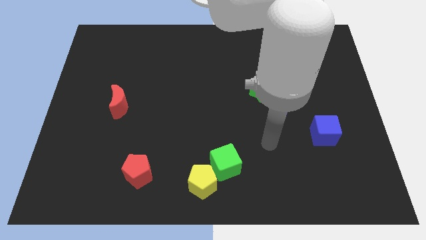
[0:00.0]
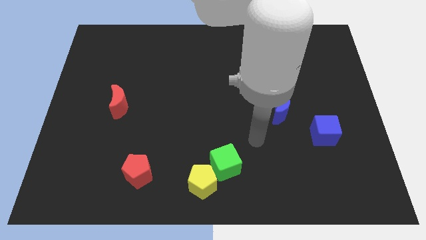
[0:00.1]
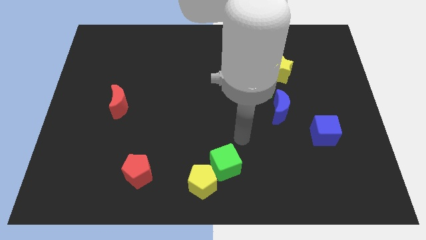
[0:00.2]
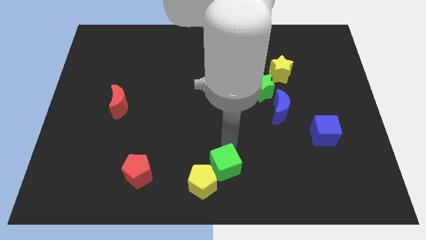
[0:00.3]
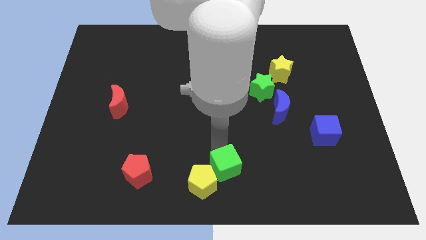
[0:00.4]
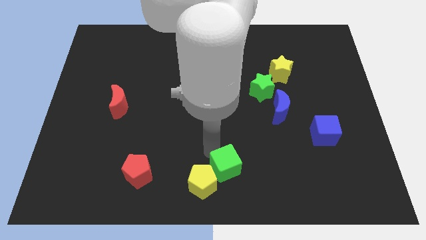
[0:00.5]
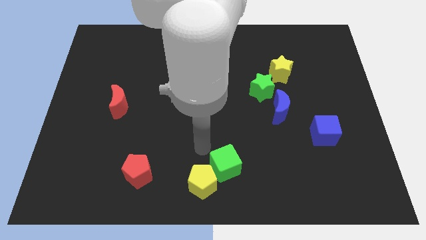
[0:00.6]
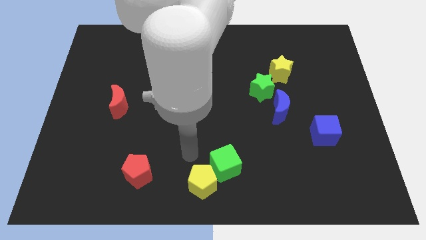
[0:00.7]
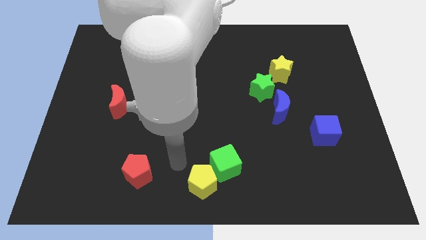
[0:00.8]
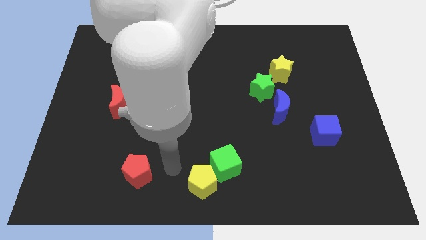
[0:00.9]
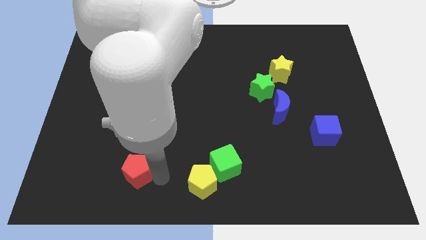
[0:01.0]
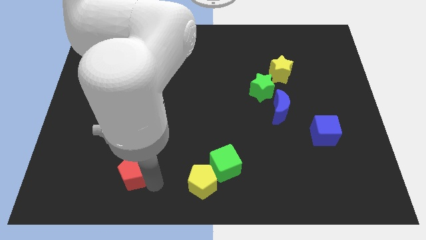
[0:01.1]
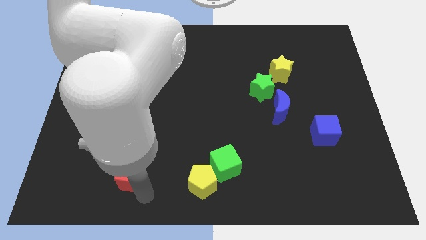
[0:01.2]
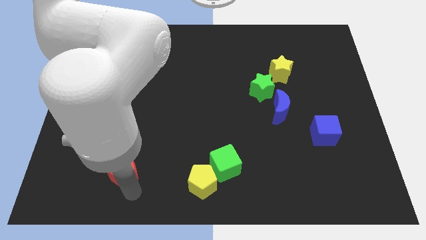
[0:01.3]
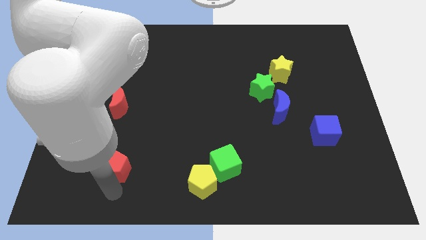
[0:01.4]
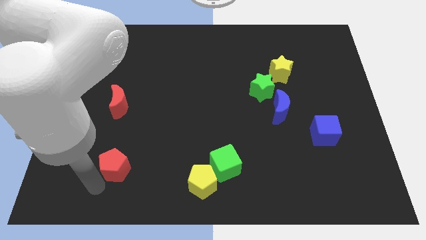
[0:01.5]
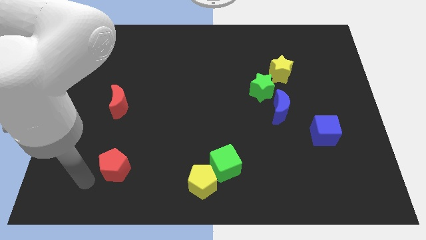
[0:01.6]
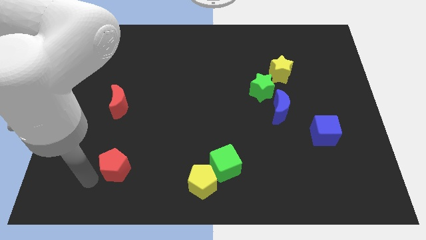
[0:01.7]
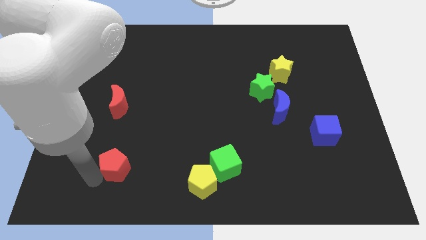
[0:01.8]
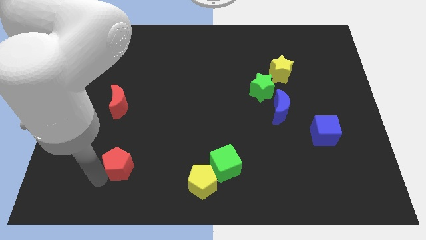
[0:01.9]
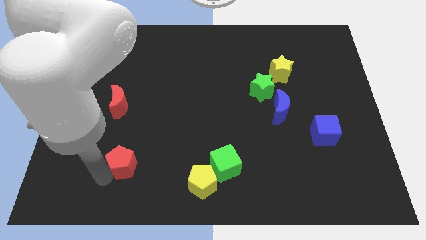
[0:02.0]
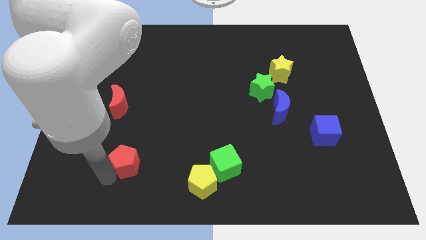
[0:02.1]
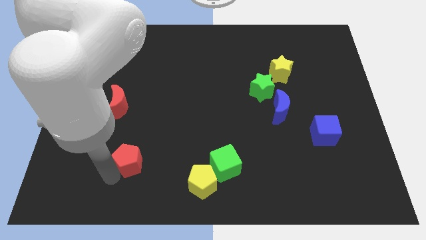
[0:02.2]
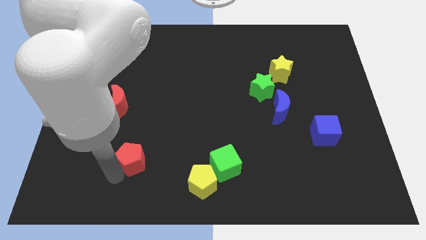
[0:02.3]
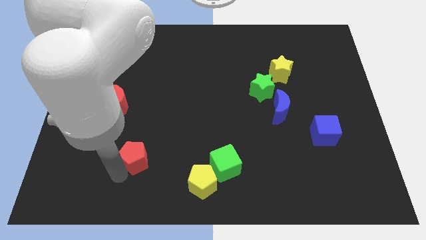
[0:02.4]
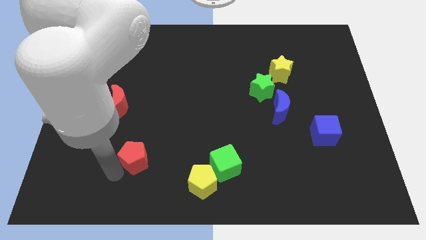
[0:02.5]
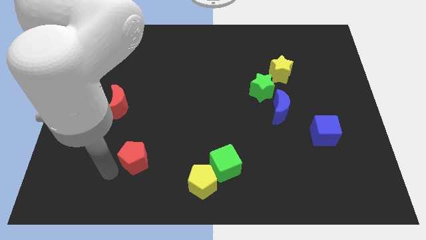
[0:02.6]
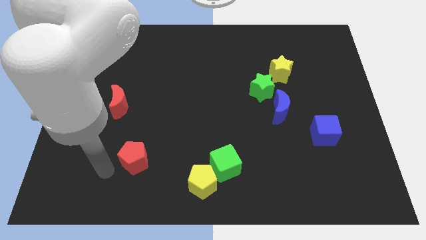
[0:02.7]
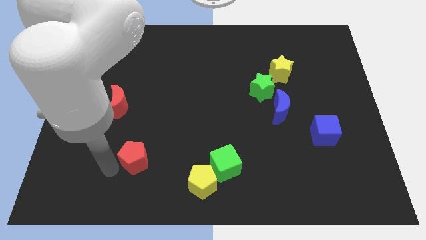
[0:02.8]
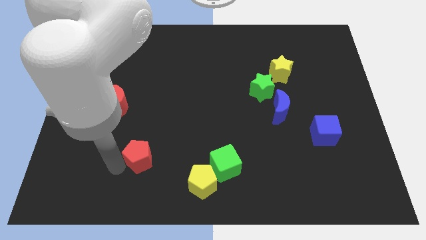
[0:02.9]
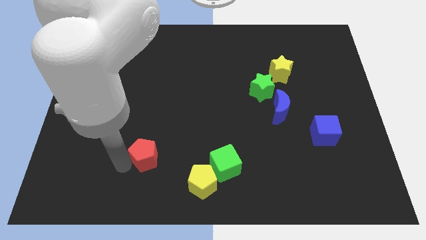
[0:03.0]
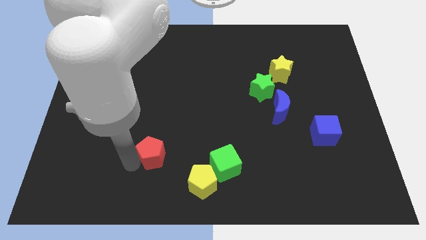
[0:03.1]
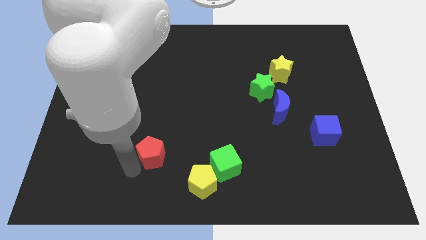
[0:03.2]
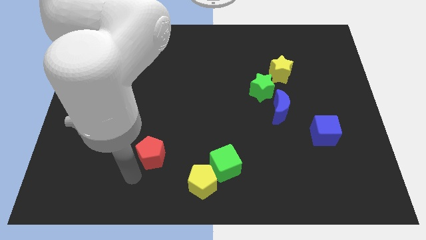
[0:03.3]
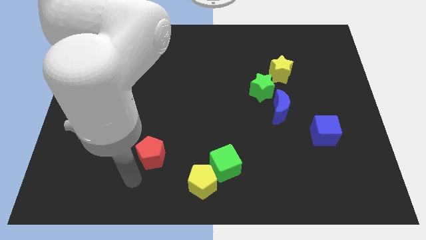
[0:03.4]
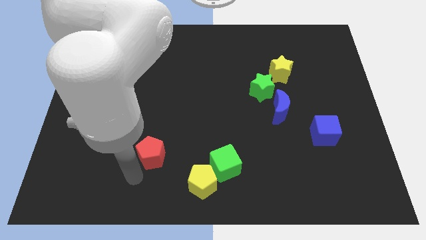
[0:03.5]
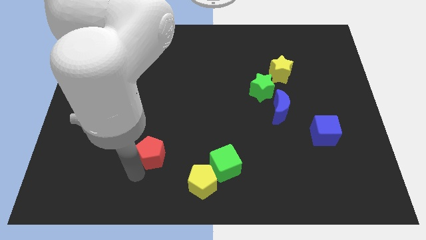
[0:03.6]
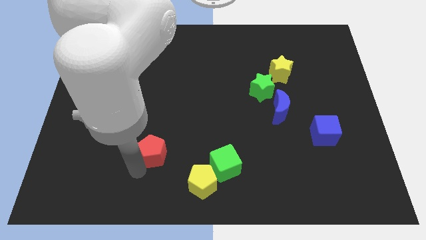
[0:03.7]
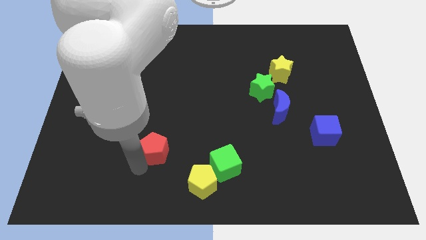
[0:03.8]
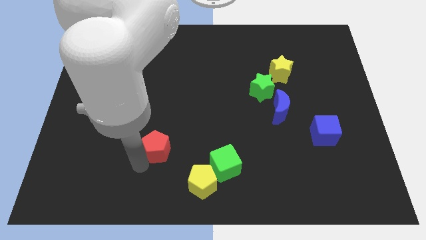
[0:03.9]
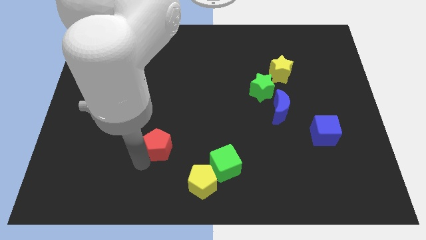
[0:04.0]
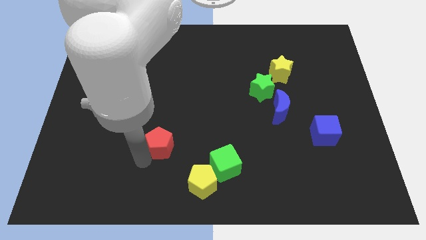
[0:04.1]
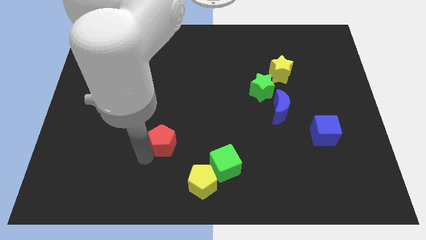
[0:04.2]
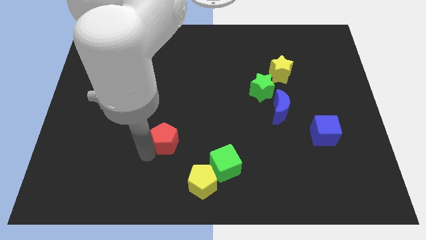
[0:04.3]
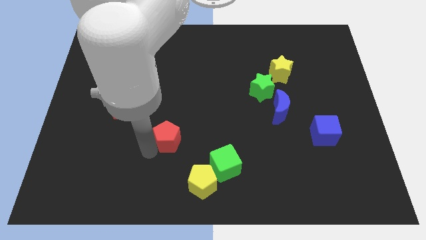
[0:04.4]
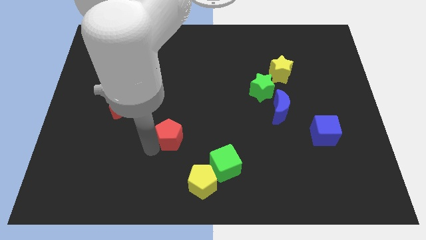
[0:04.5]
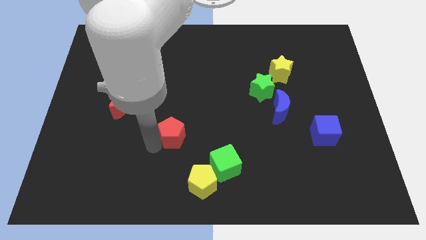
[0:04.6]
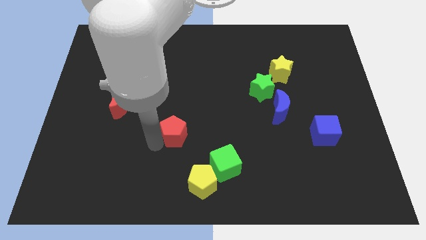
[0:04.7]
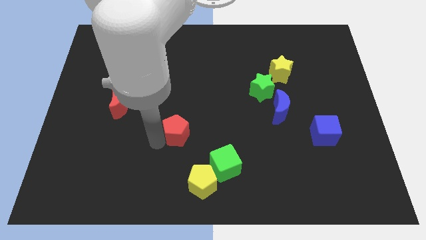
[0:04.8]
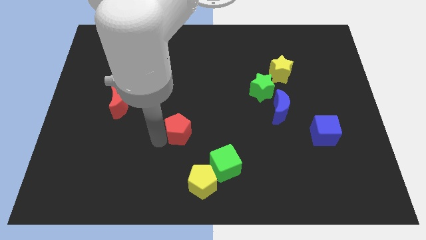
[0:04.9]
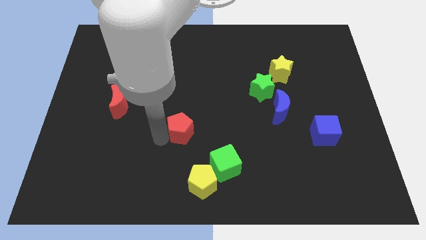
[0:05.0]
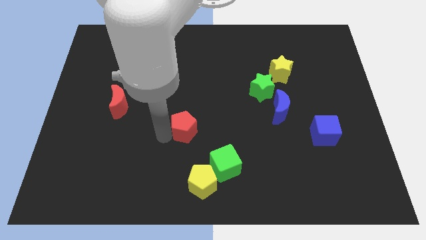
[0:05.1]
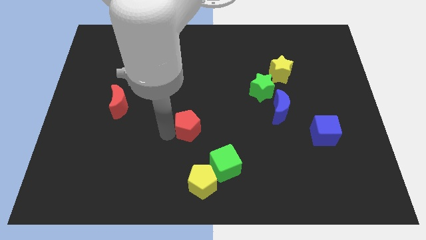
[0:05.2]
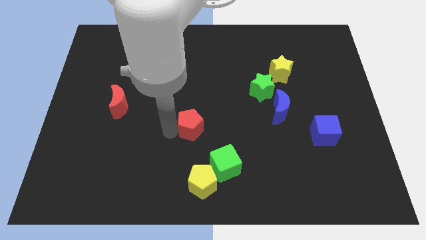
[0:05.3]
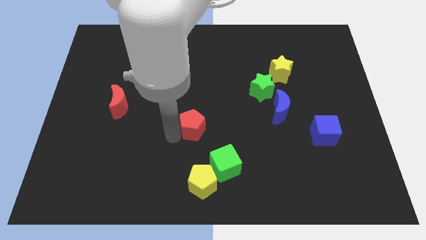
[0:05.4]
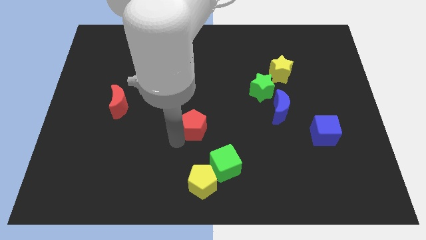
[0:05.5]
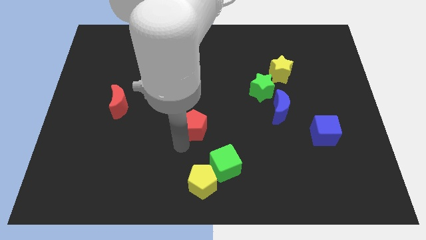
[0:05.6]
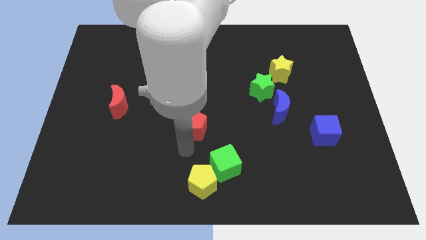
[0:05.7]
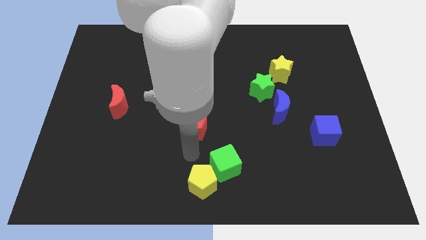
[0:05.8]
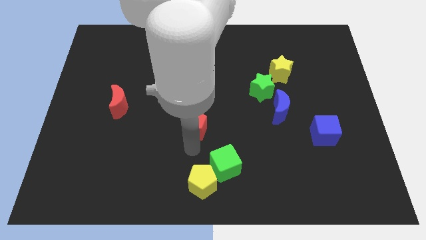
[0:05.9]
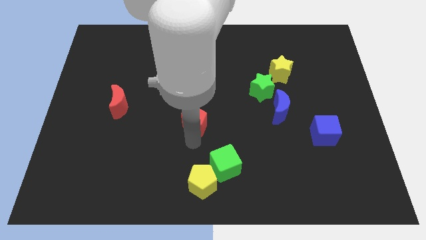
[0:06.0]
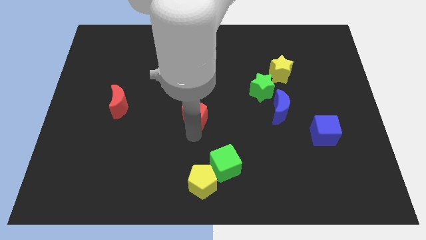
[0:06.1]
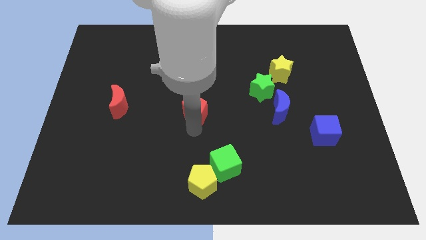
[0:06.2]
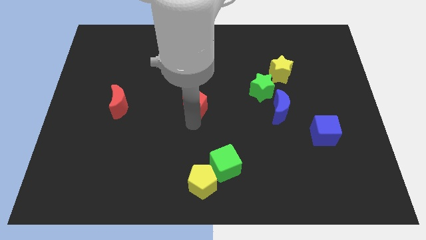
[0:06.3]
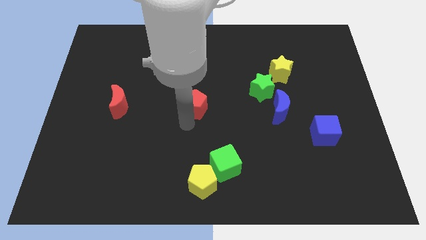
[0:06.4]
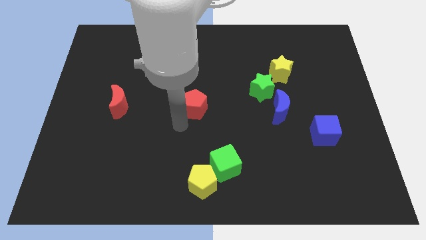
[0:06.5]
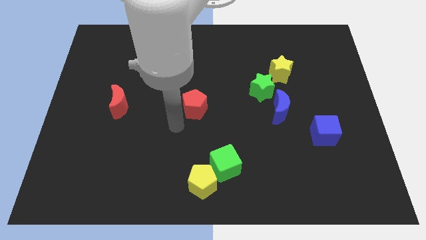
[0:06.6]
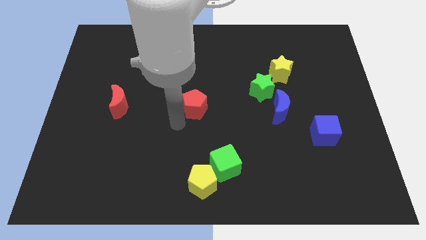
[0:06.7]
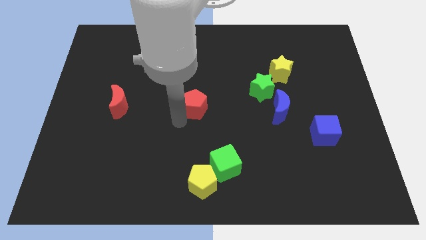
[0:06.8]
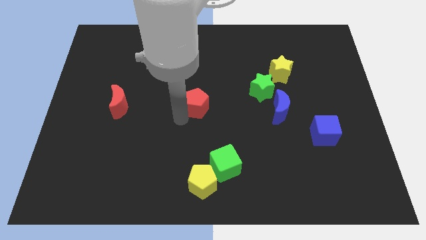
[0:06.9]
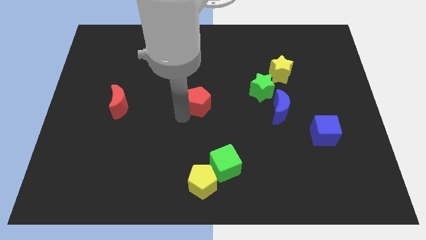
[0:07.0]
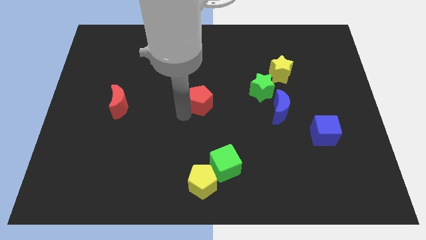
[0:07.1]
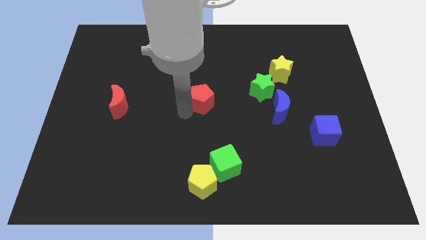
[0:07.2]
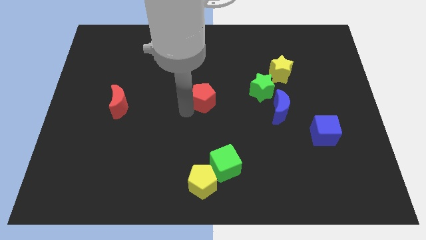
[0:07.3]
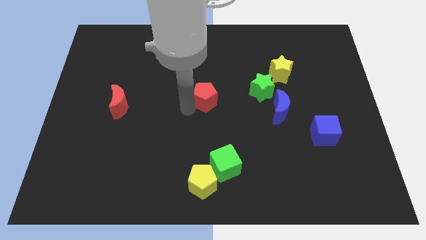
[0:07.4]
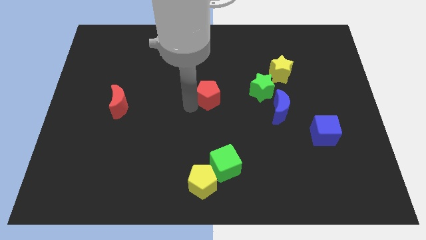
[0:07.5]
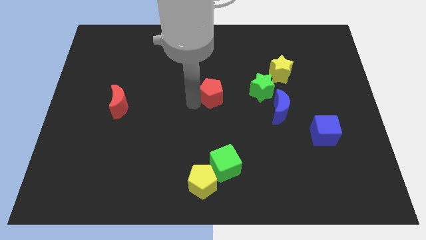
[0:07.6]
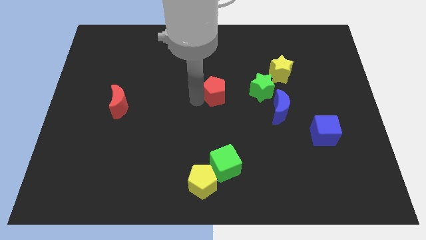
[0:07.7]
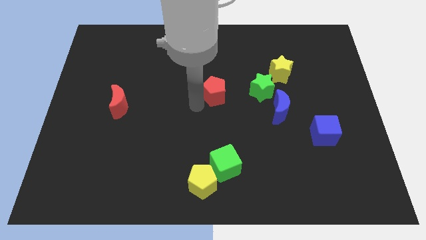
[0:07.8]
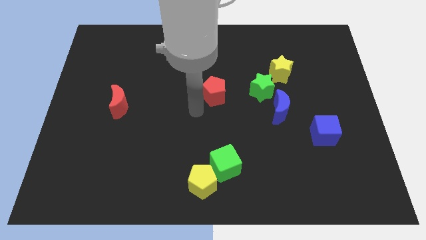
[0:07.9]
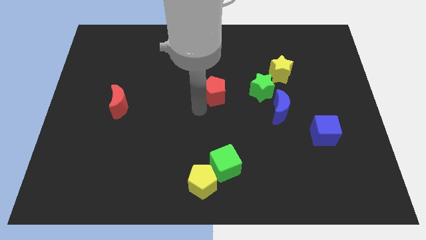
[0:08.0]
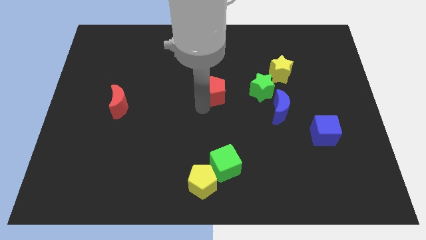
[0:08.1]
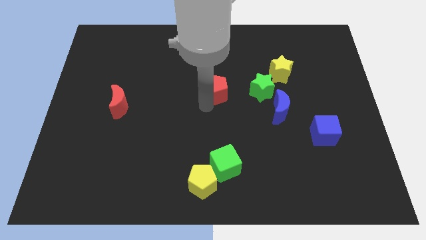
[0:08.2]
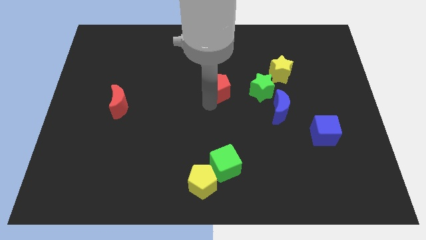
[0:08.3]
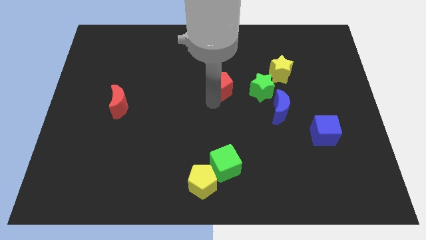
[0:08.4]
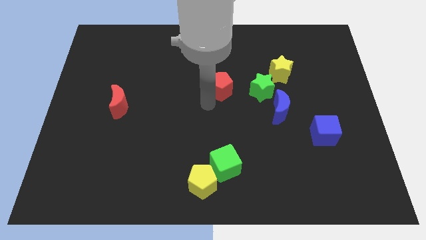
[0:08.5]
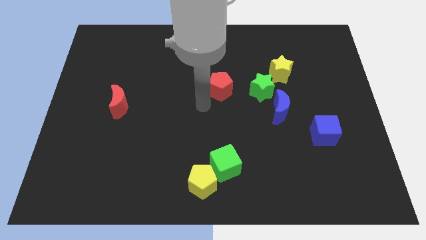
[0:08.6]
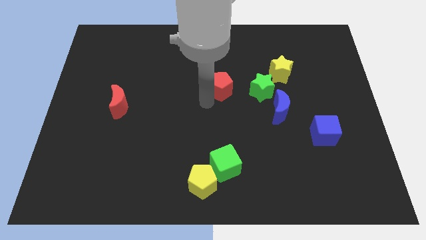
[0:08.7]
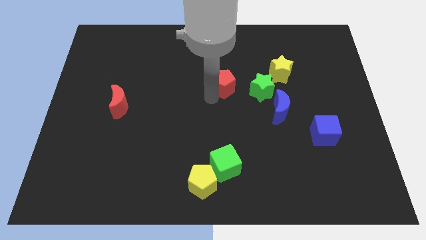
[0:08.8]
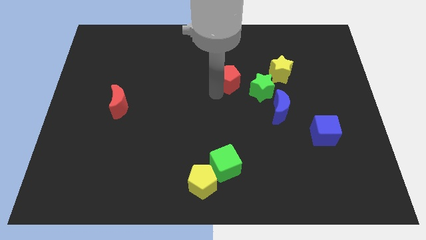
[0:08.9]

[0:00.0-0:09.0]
slide the red pentagon to the left of the yellow star
